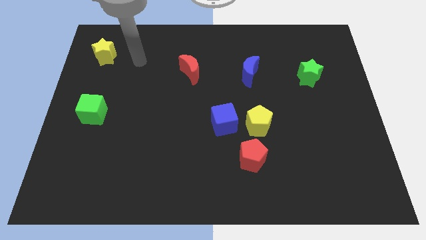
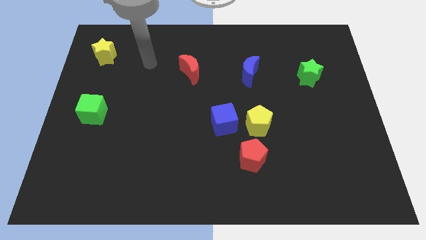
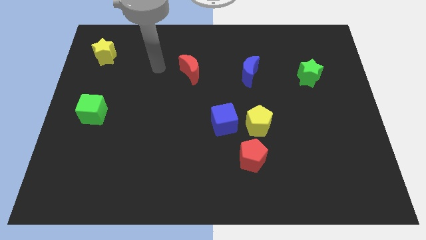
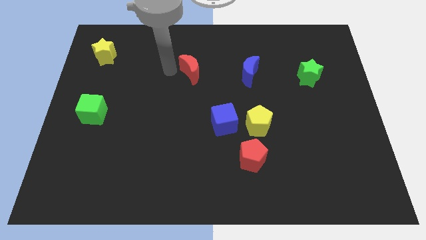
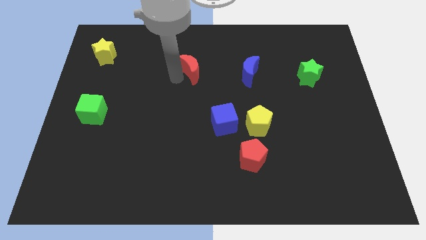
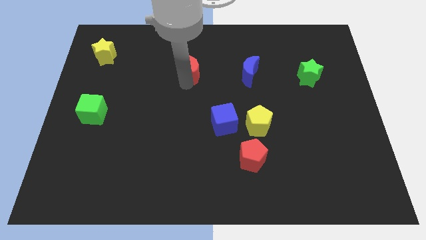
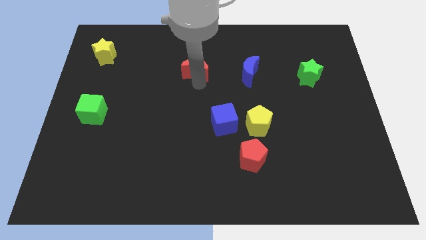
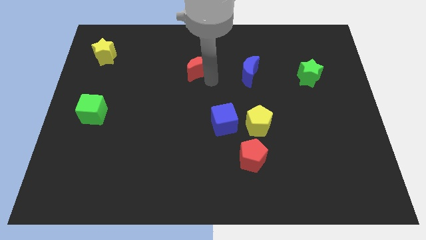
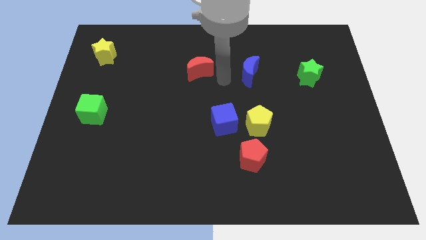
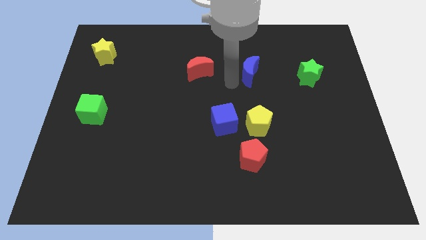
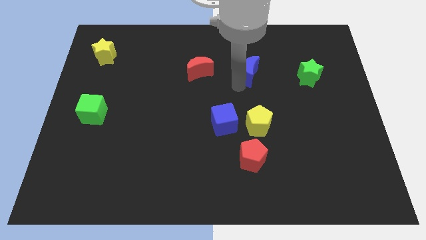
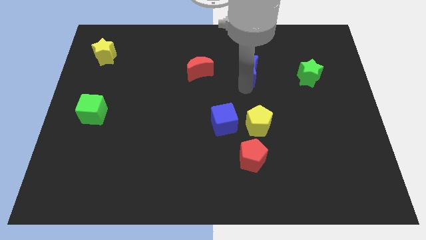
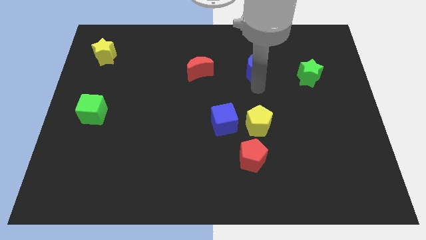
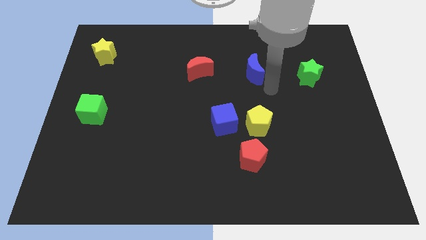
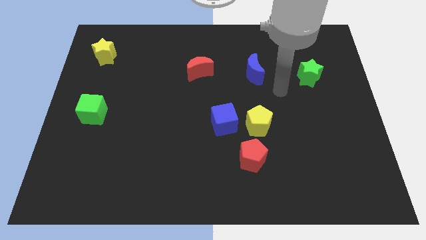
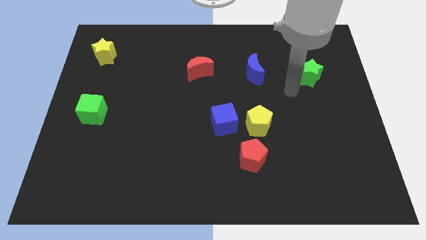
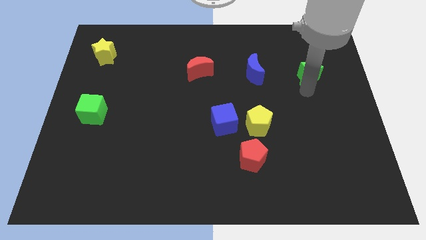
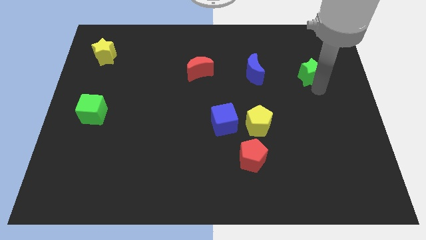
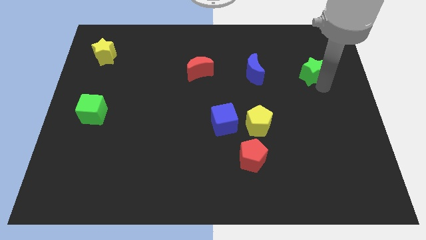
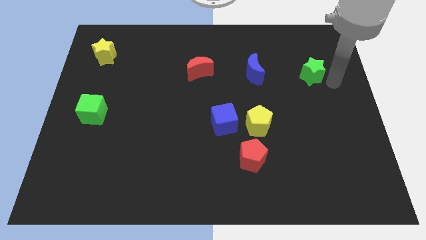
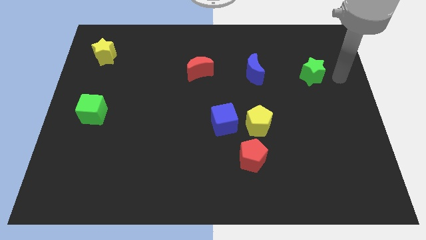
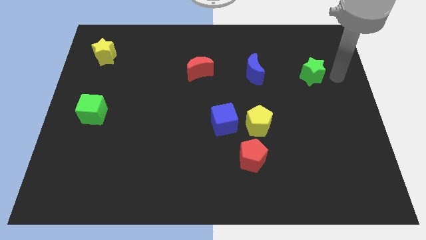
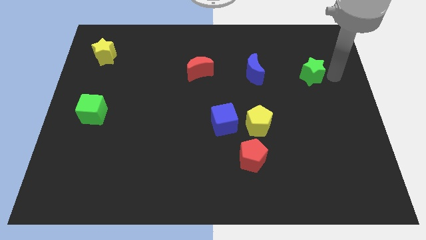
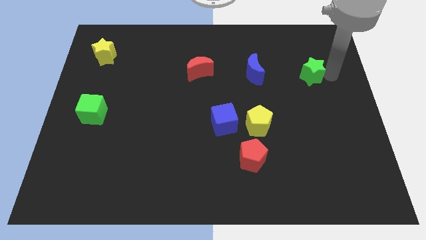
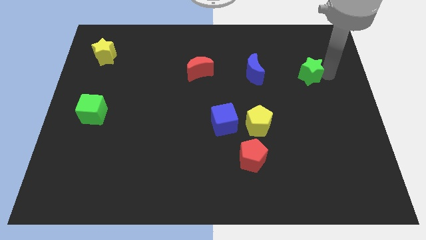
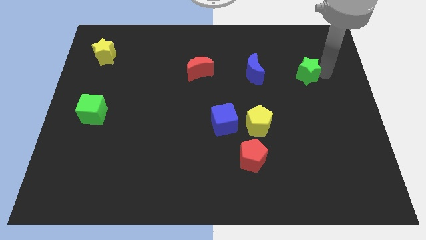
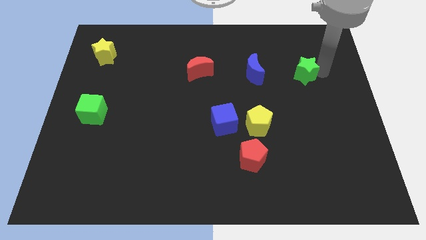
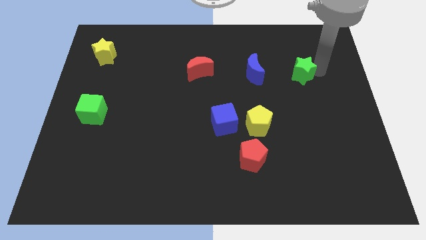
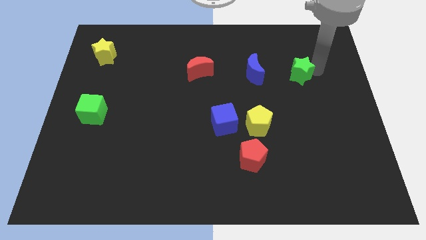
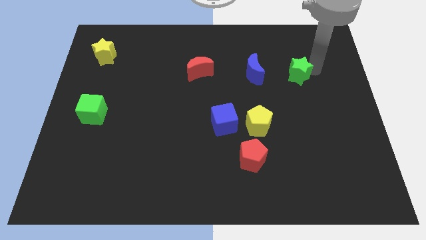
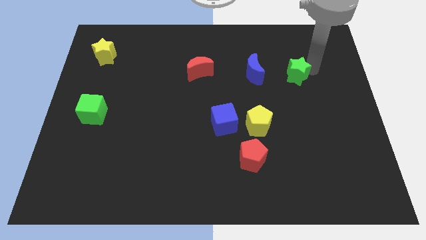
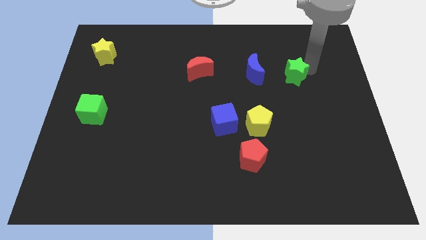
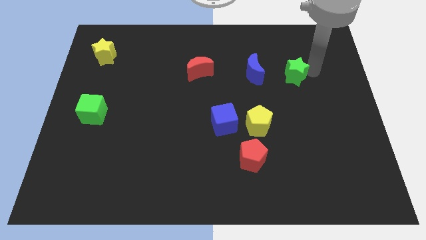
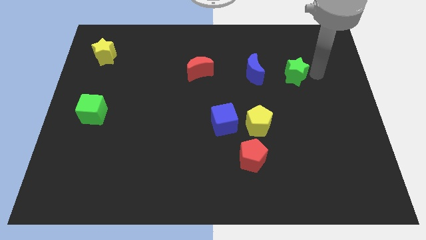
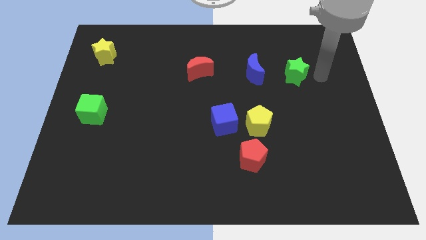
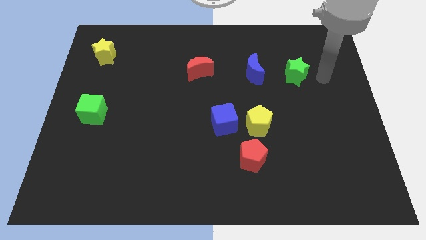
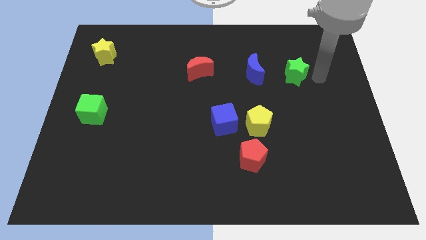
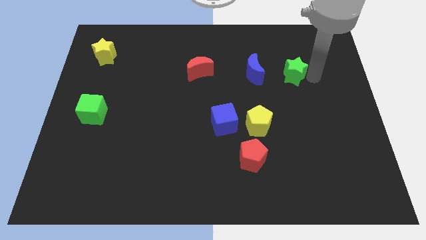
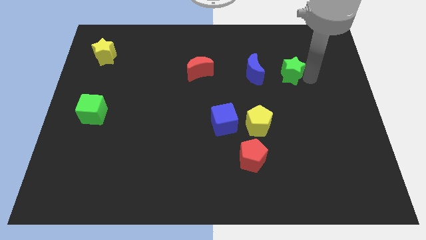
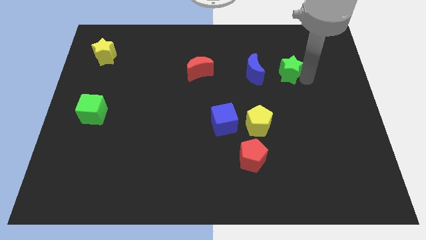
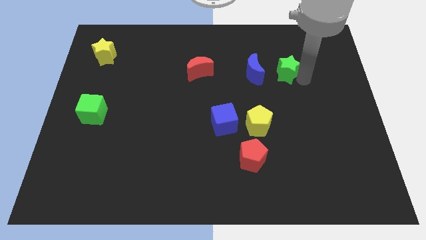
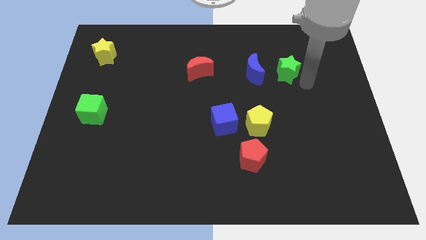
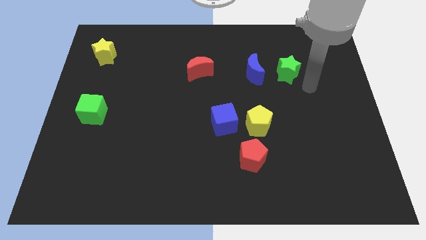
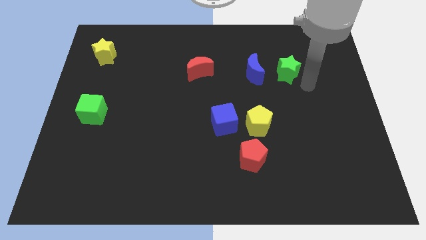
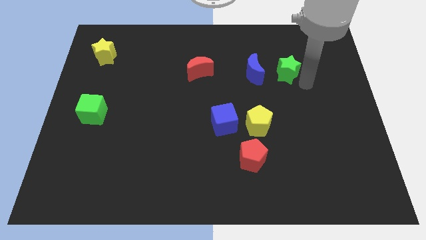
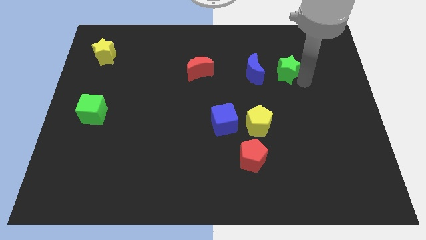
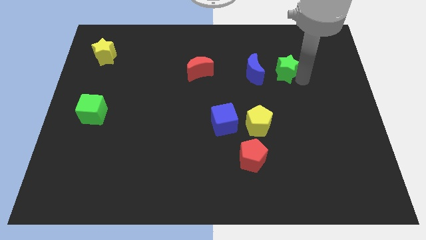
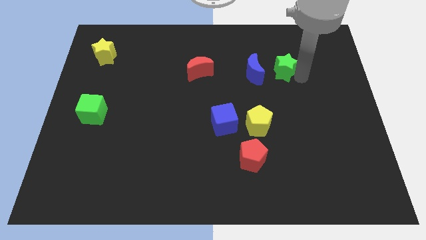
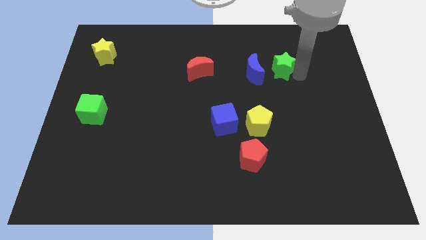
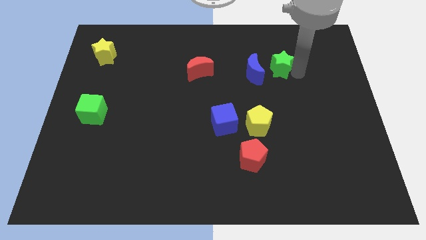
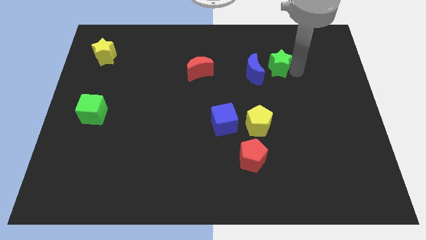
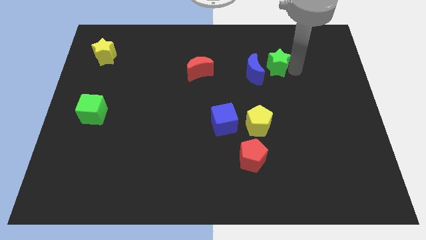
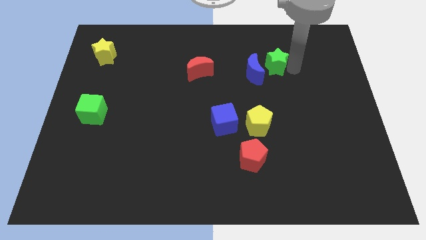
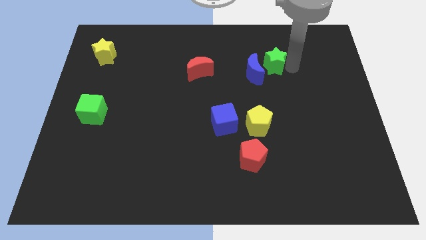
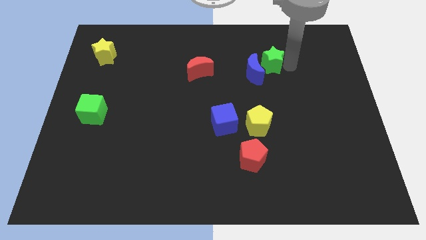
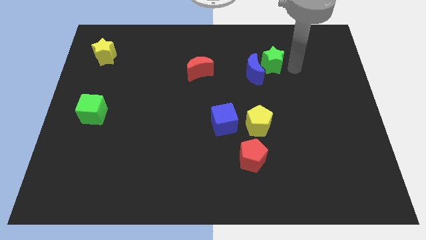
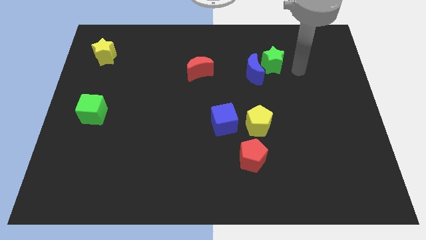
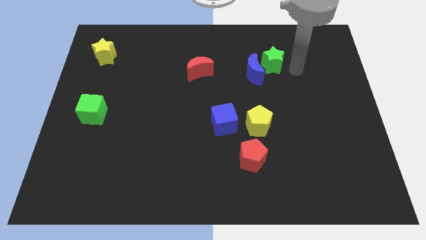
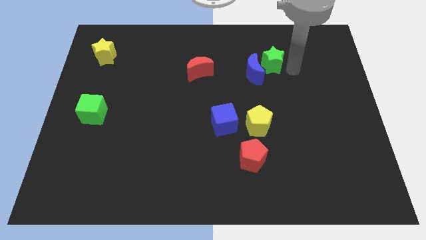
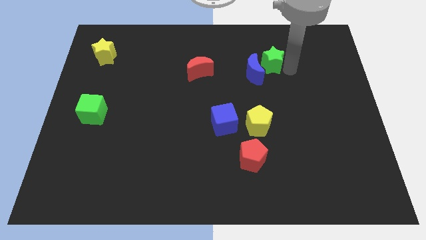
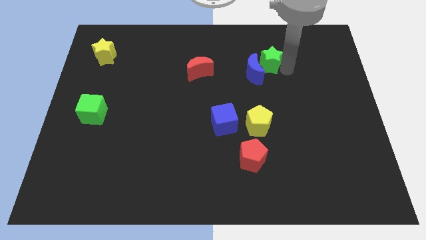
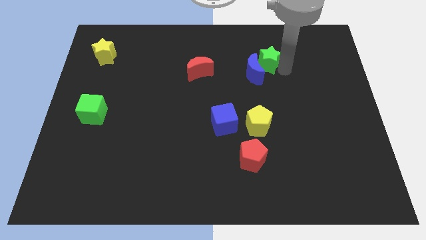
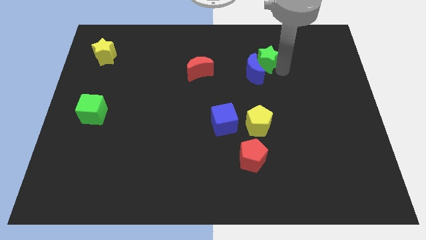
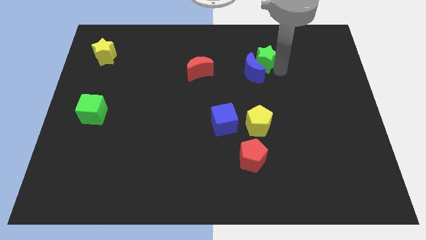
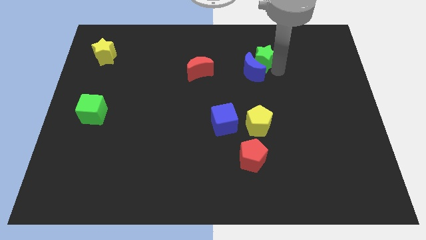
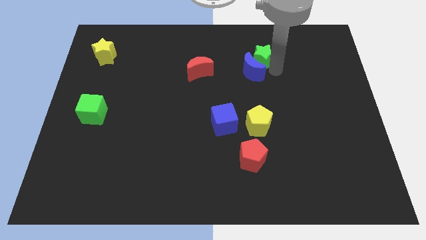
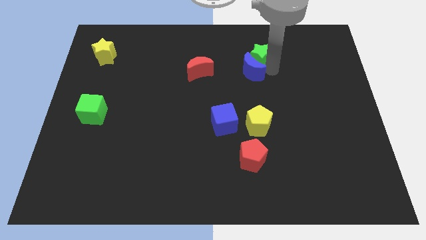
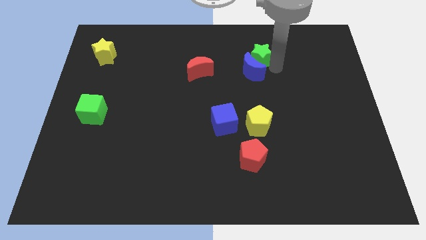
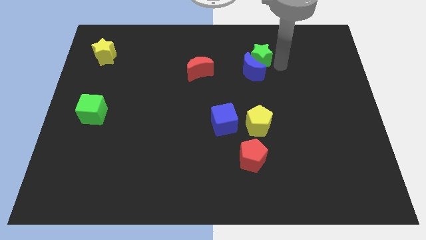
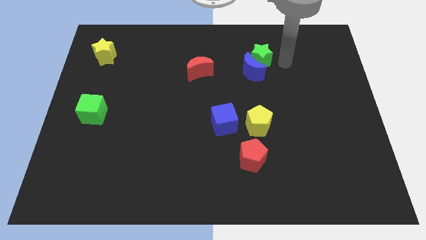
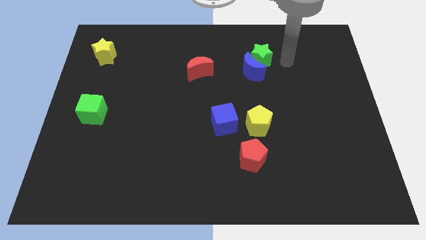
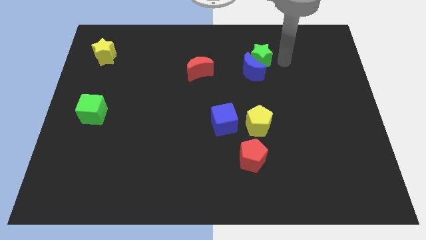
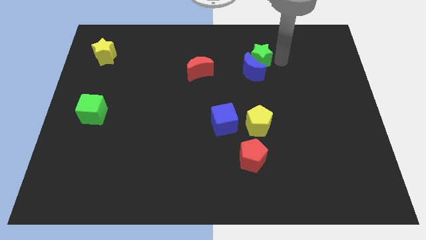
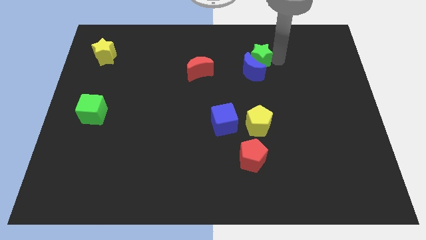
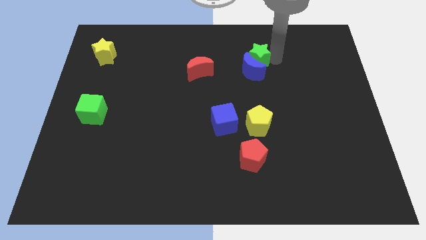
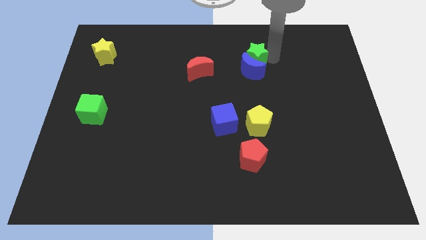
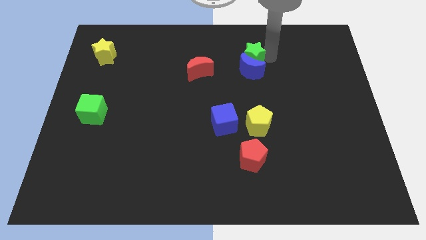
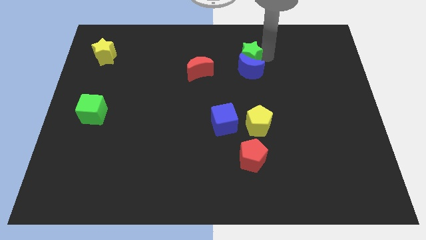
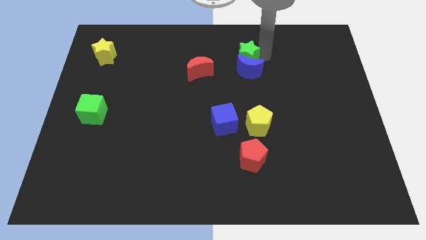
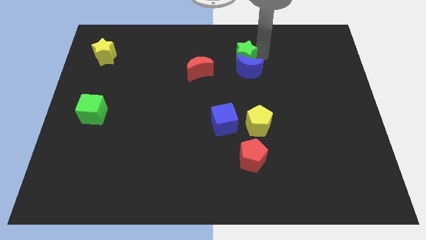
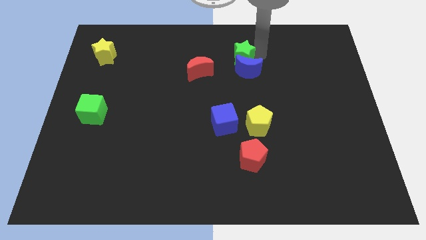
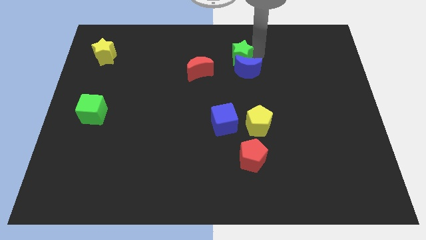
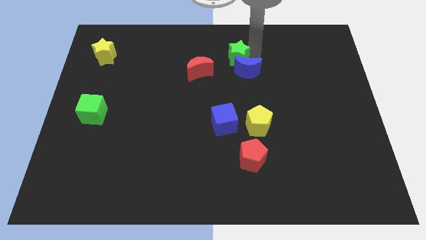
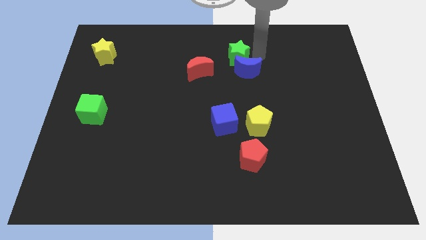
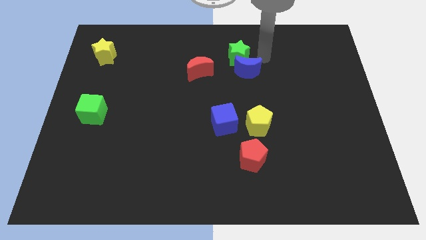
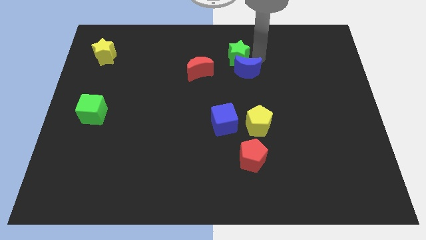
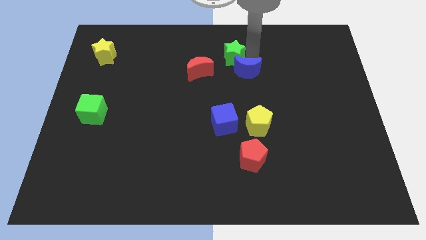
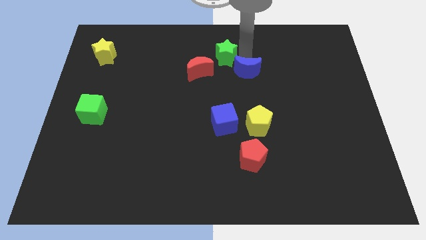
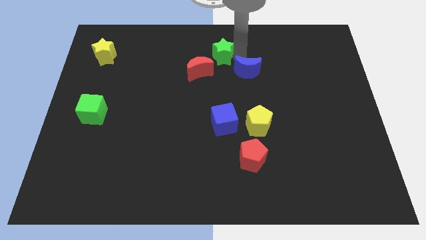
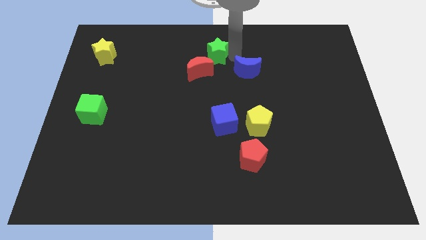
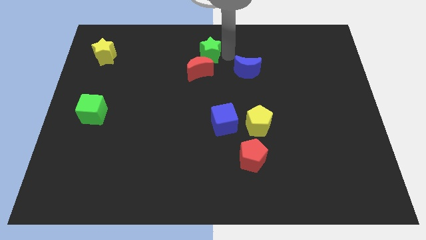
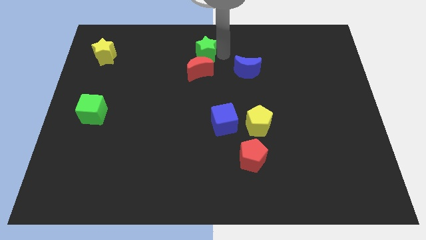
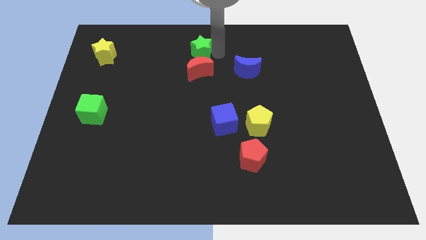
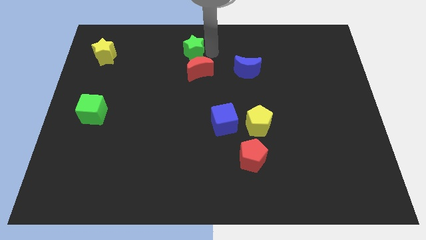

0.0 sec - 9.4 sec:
move the green star diagonally up and to the left of the red moon
